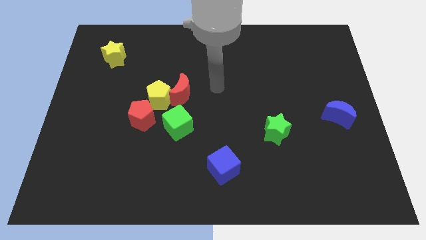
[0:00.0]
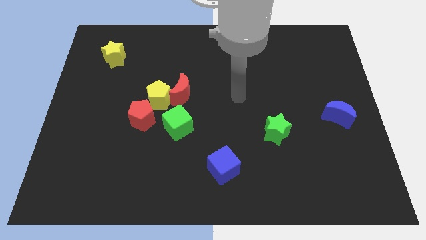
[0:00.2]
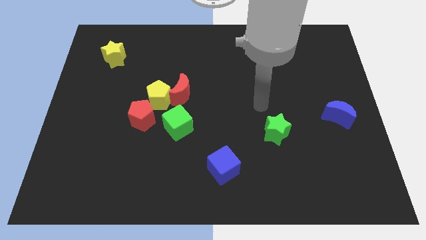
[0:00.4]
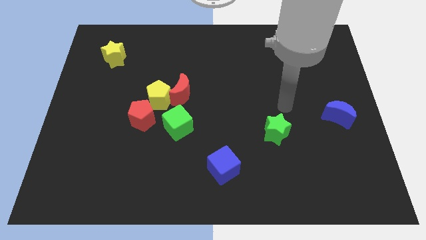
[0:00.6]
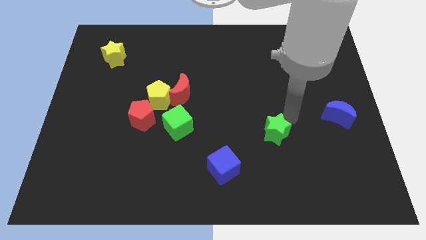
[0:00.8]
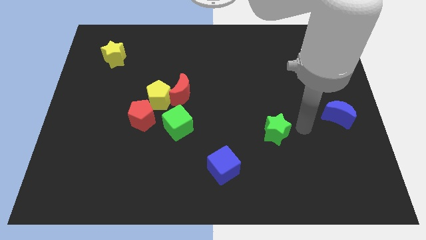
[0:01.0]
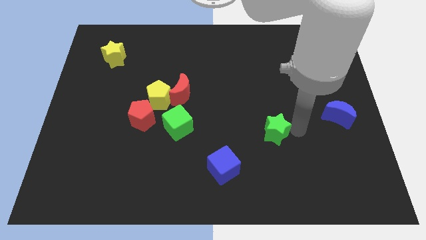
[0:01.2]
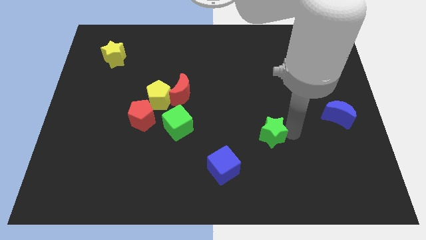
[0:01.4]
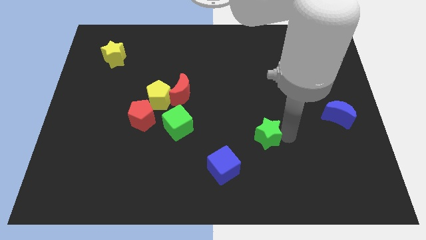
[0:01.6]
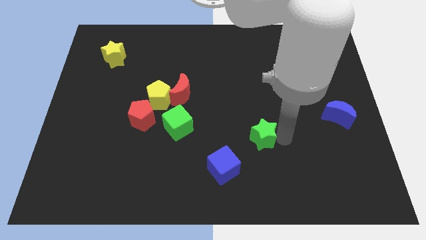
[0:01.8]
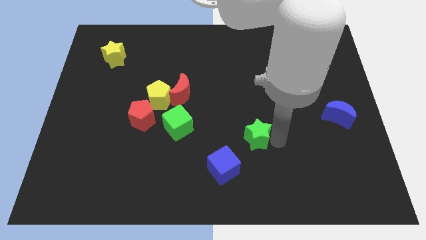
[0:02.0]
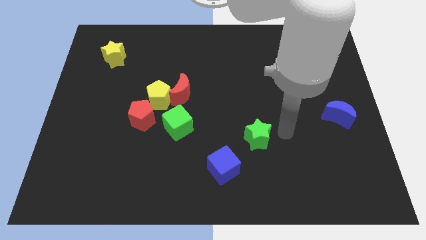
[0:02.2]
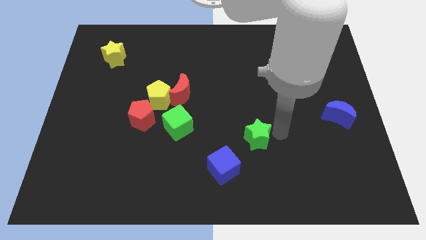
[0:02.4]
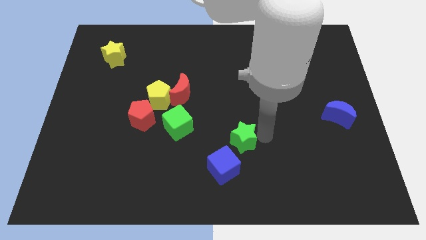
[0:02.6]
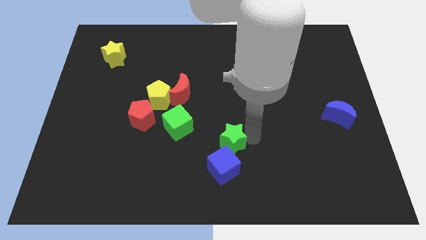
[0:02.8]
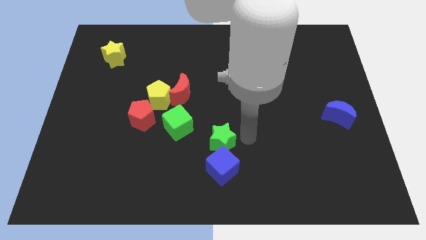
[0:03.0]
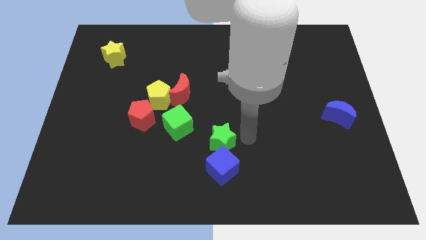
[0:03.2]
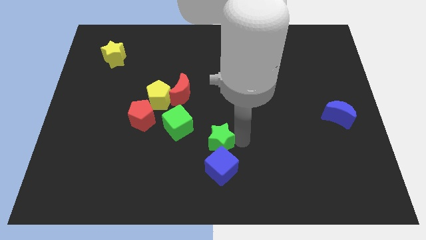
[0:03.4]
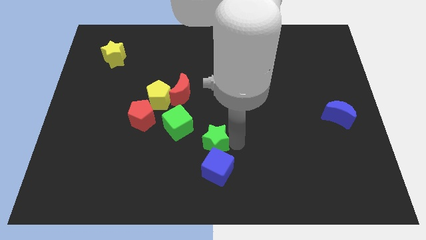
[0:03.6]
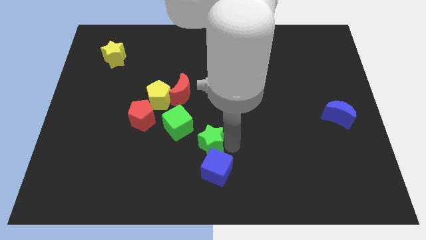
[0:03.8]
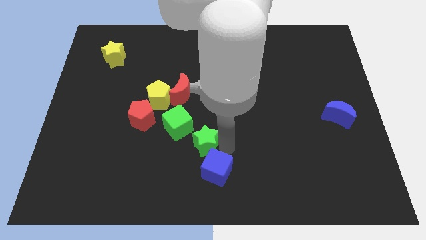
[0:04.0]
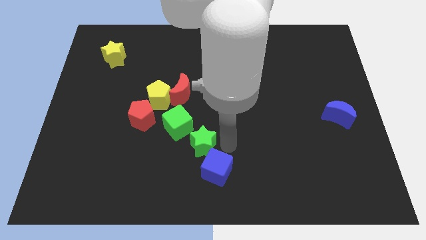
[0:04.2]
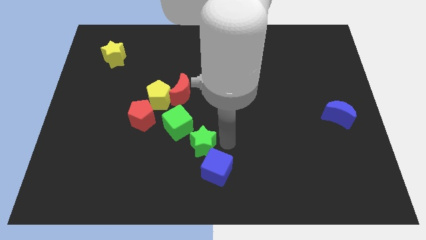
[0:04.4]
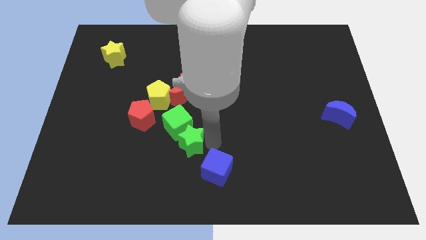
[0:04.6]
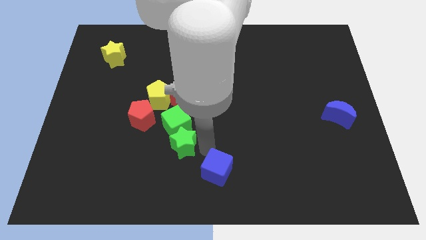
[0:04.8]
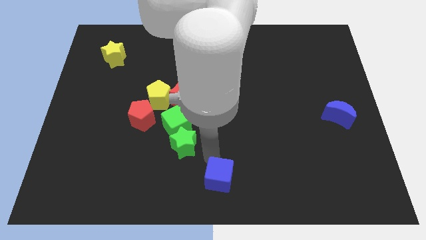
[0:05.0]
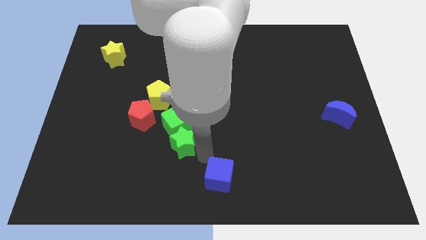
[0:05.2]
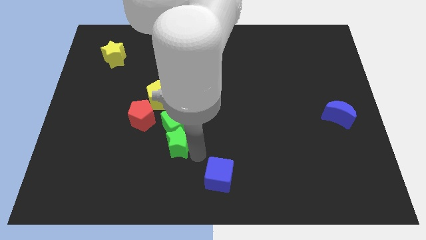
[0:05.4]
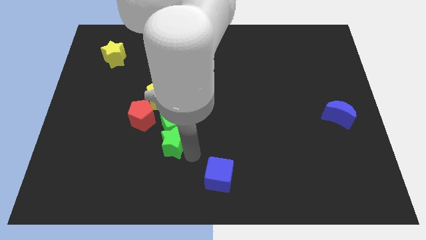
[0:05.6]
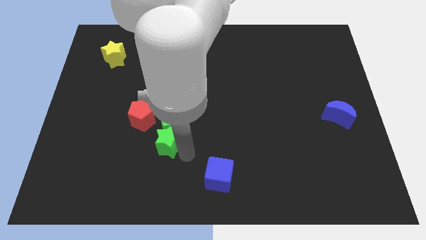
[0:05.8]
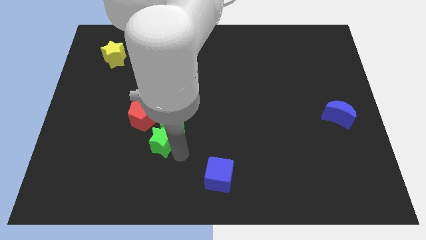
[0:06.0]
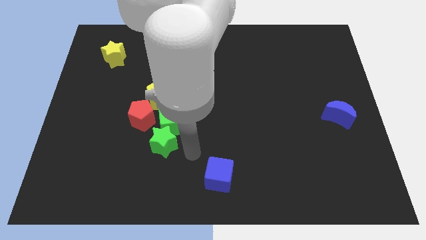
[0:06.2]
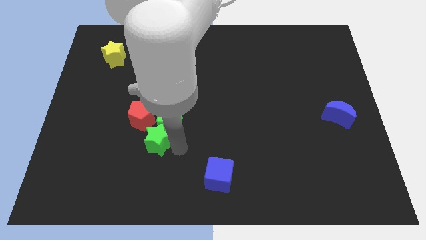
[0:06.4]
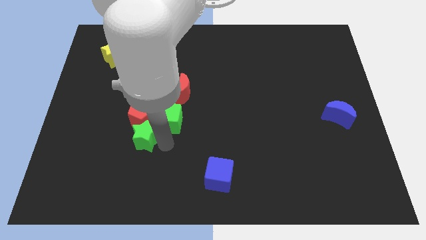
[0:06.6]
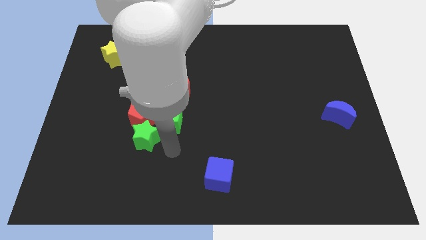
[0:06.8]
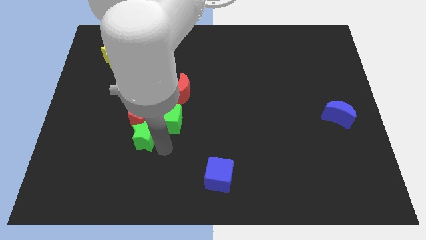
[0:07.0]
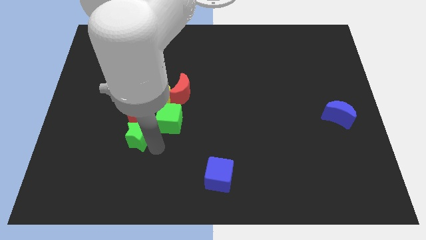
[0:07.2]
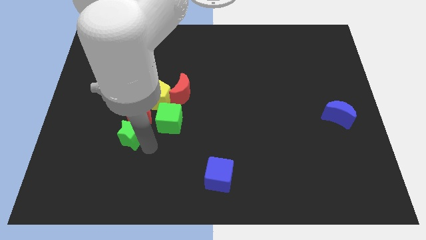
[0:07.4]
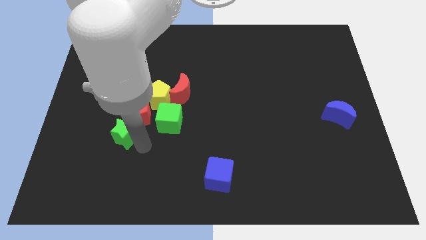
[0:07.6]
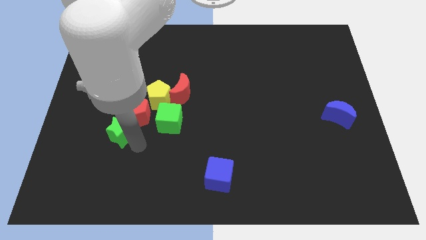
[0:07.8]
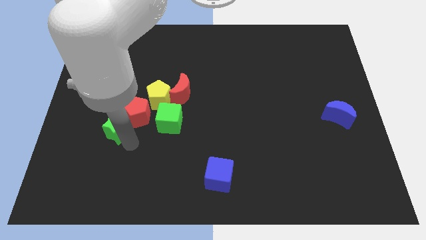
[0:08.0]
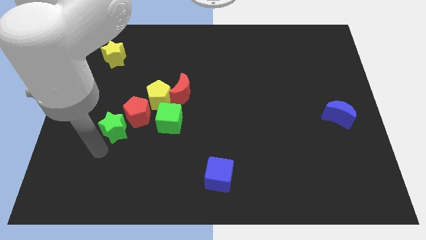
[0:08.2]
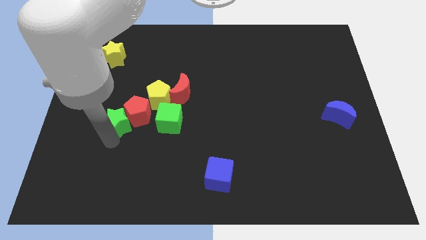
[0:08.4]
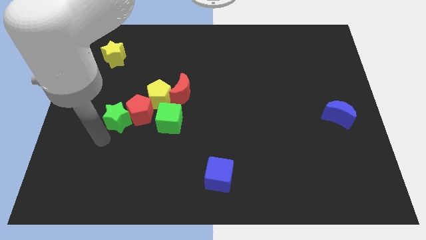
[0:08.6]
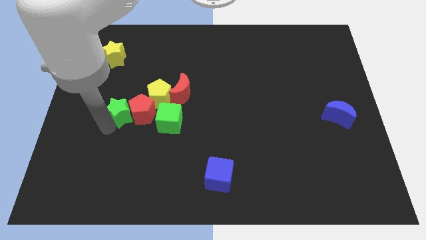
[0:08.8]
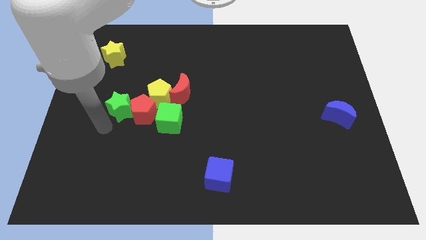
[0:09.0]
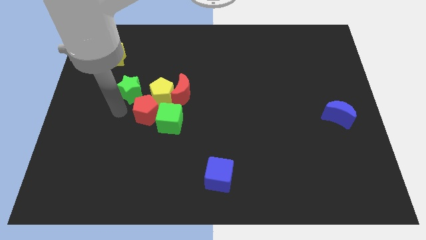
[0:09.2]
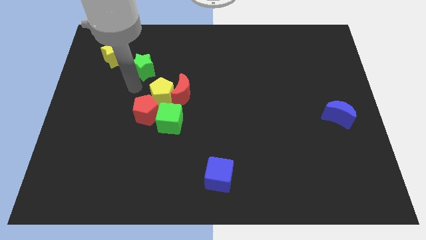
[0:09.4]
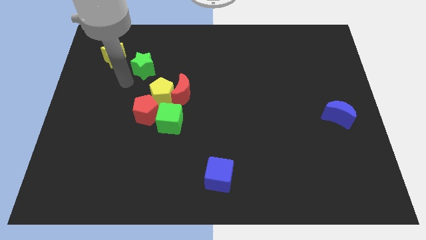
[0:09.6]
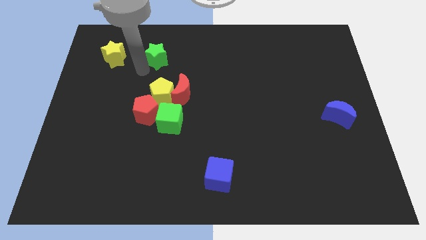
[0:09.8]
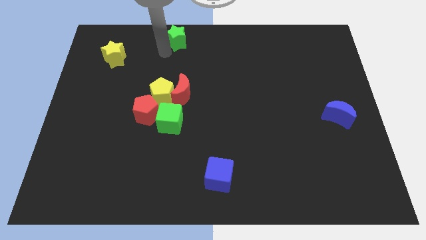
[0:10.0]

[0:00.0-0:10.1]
slide the green star to the top side

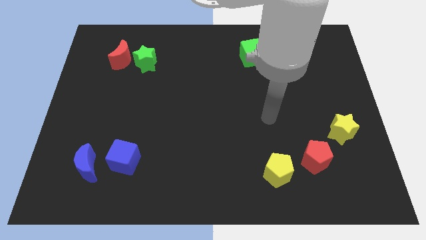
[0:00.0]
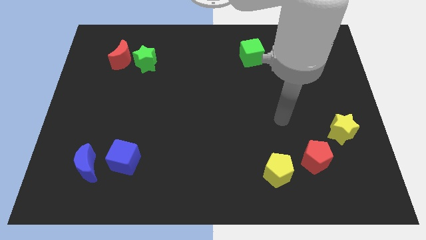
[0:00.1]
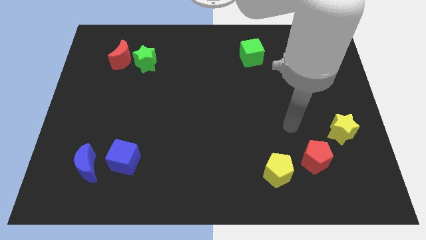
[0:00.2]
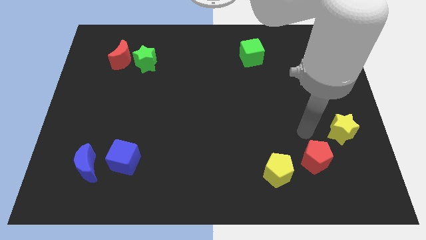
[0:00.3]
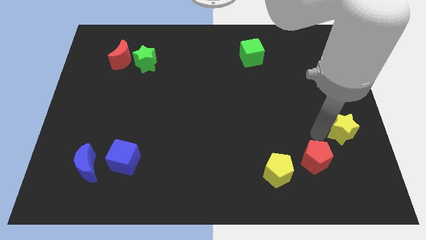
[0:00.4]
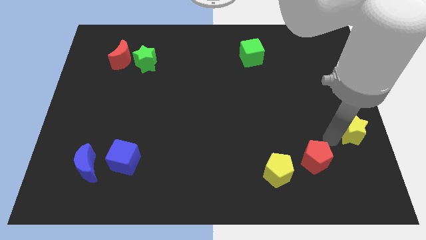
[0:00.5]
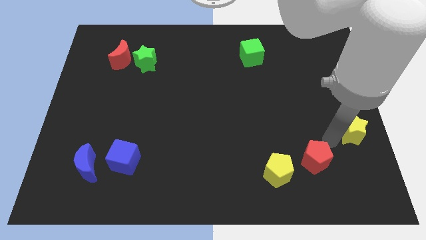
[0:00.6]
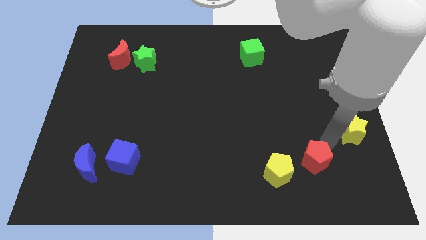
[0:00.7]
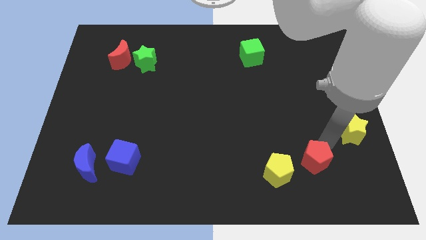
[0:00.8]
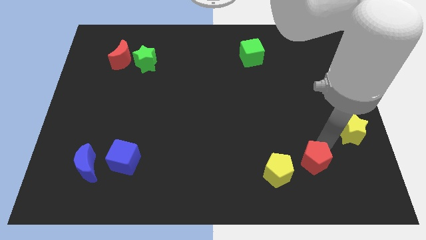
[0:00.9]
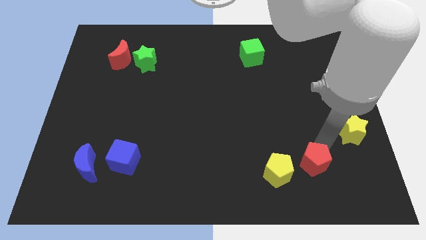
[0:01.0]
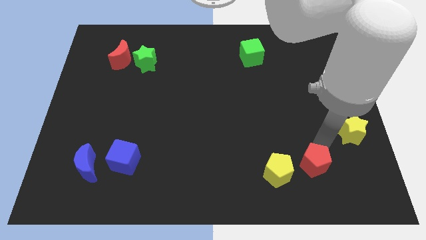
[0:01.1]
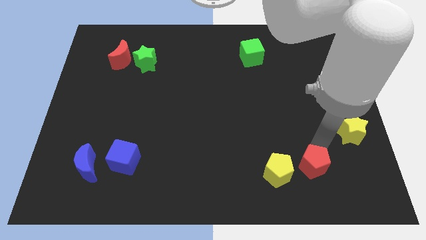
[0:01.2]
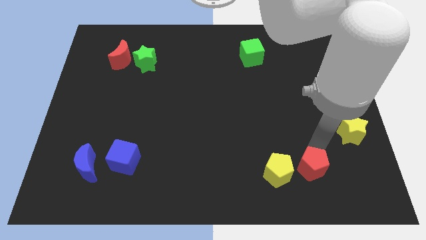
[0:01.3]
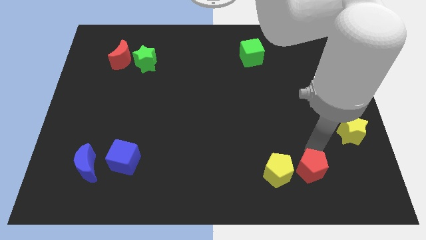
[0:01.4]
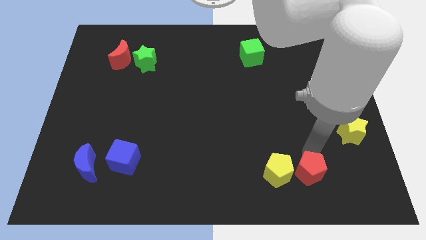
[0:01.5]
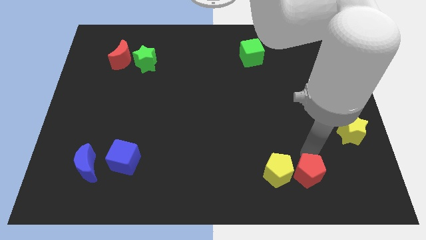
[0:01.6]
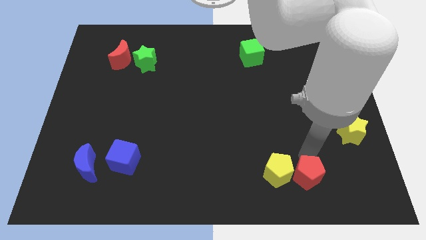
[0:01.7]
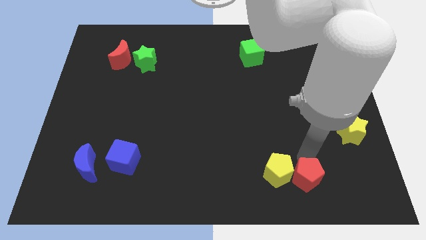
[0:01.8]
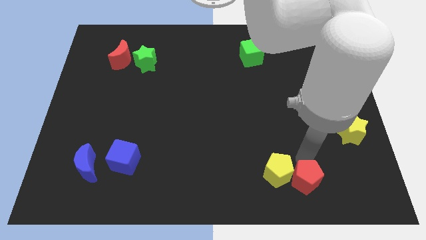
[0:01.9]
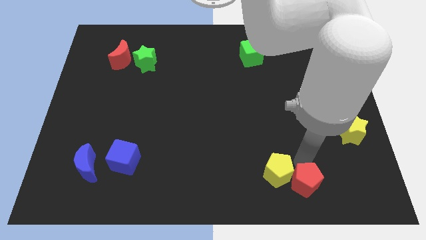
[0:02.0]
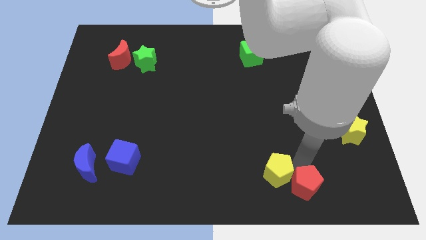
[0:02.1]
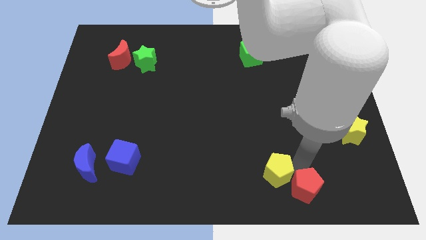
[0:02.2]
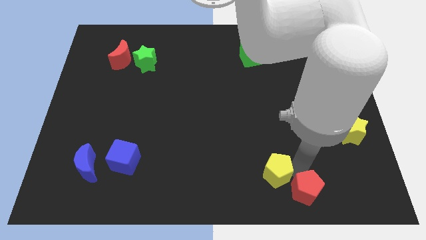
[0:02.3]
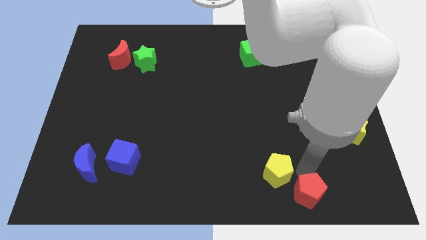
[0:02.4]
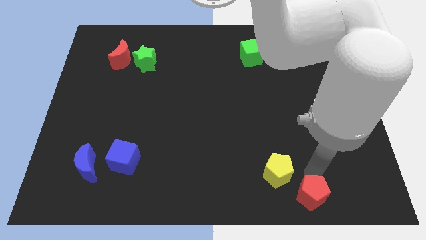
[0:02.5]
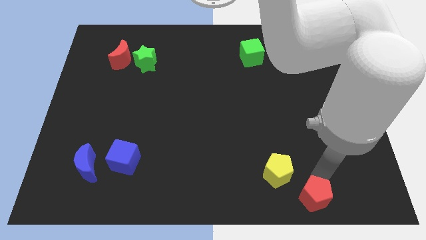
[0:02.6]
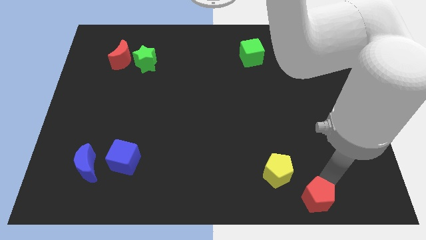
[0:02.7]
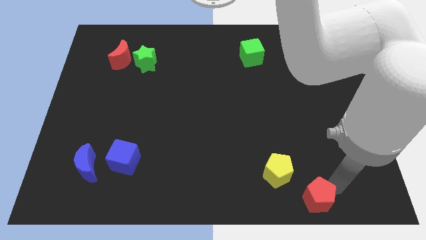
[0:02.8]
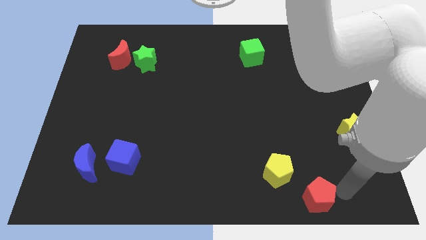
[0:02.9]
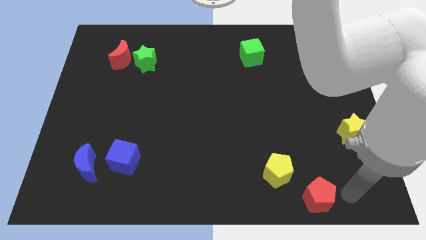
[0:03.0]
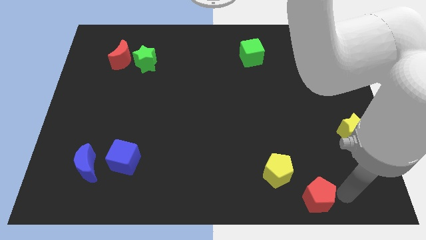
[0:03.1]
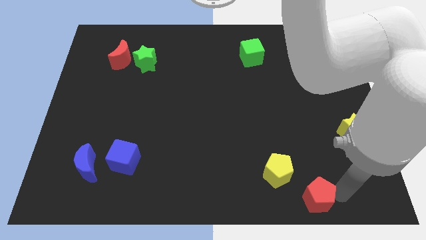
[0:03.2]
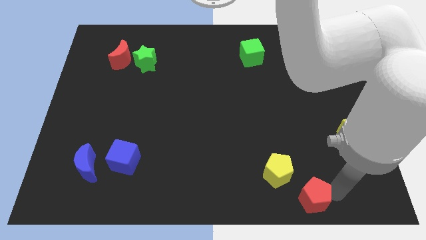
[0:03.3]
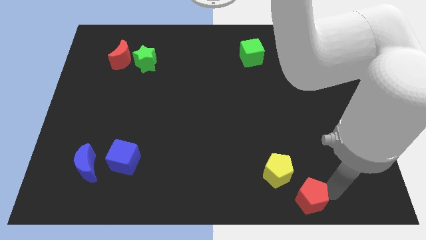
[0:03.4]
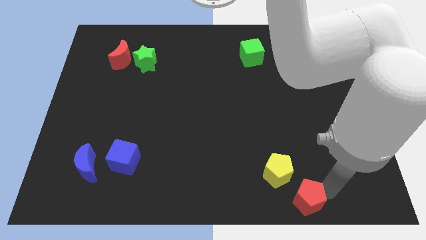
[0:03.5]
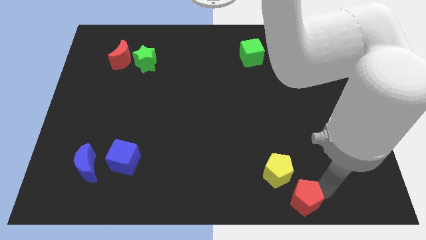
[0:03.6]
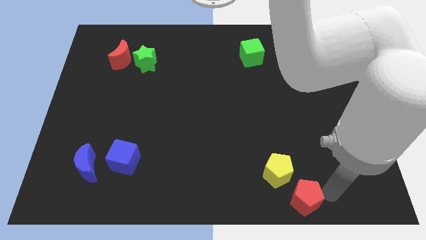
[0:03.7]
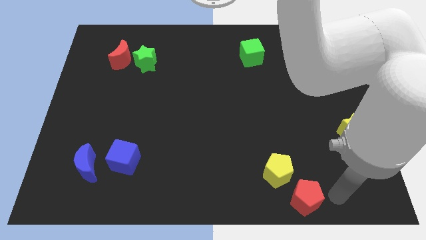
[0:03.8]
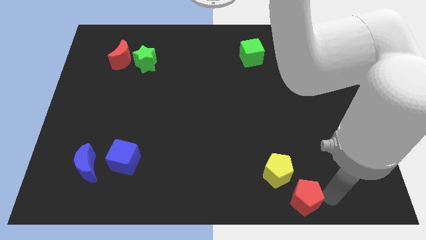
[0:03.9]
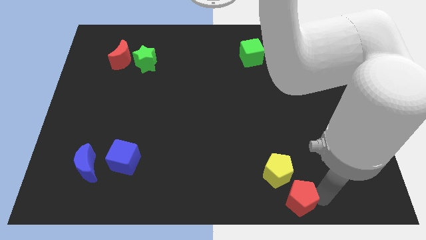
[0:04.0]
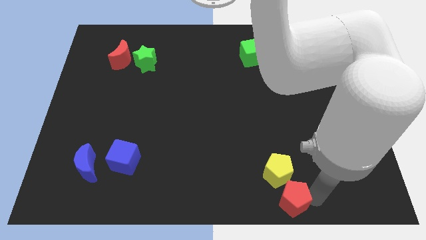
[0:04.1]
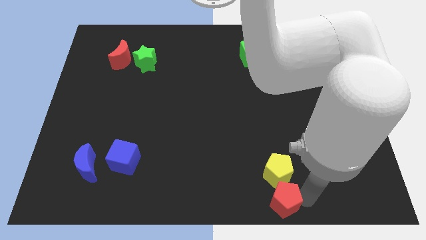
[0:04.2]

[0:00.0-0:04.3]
push the red pentagon to the bottom side
